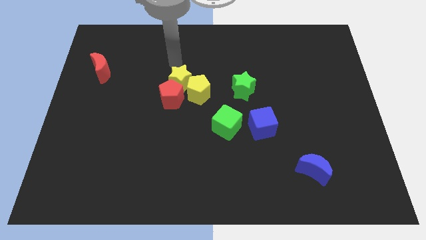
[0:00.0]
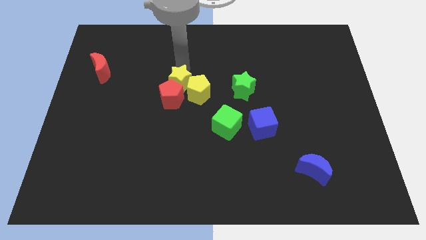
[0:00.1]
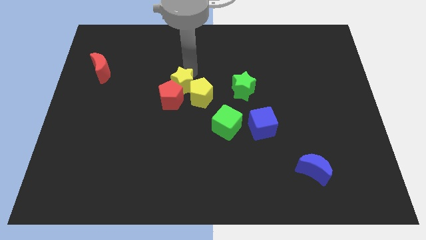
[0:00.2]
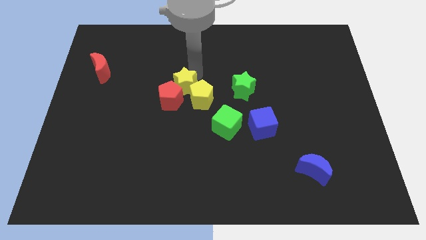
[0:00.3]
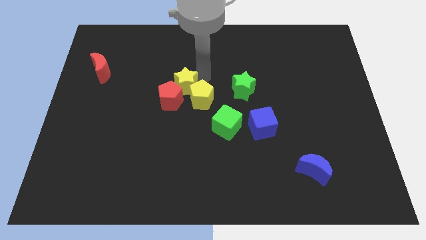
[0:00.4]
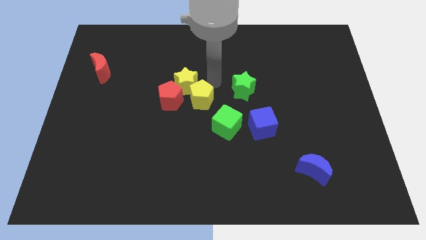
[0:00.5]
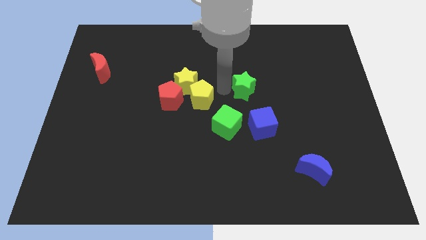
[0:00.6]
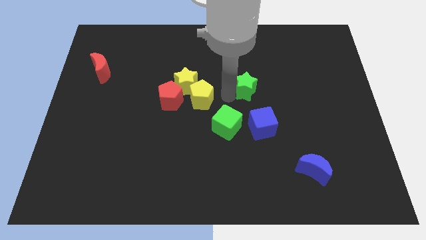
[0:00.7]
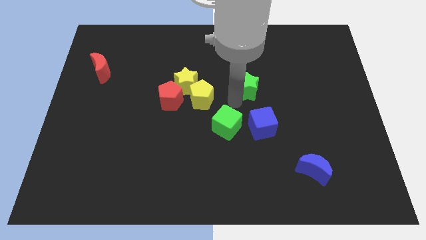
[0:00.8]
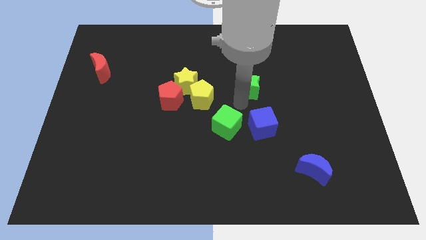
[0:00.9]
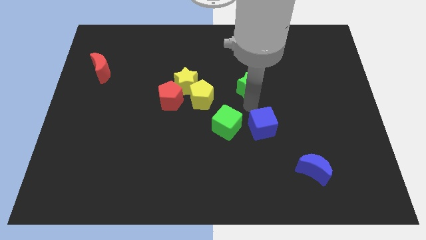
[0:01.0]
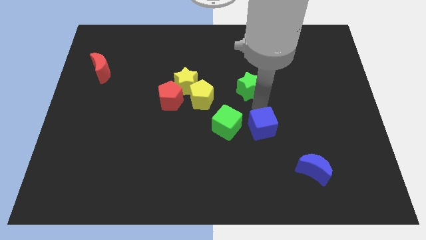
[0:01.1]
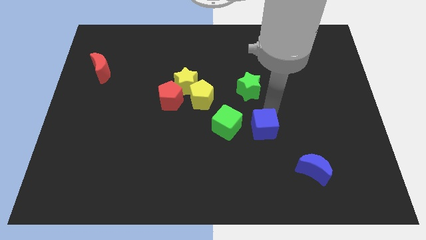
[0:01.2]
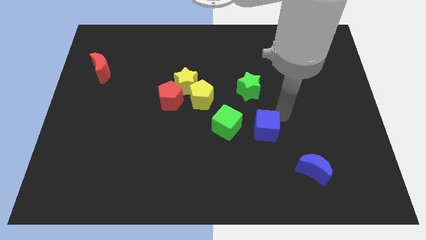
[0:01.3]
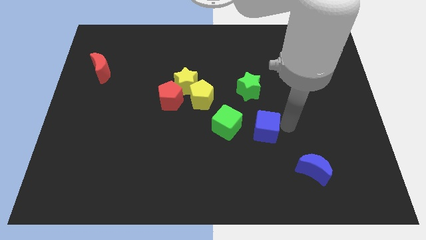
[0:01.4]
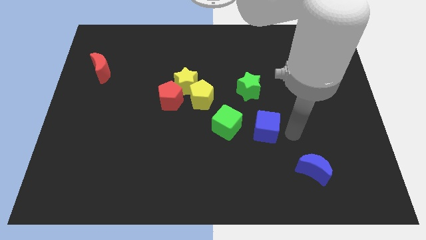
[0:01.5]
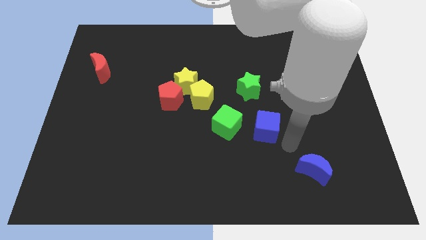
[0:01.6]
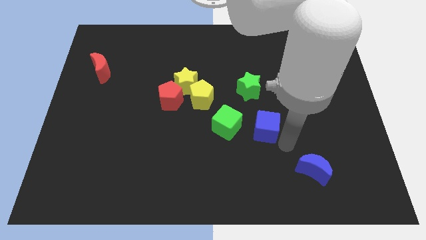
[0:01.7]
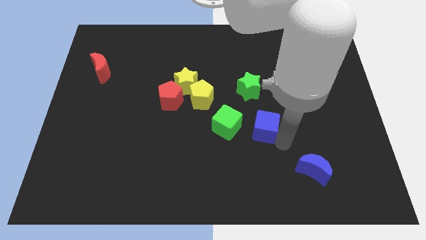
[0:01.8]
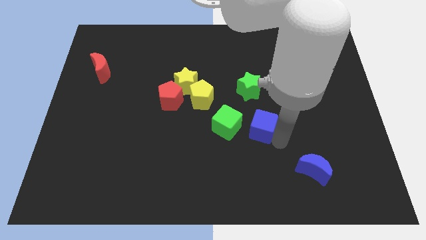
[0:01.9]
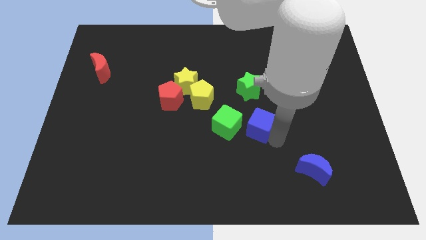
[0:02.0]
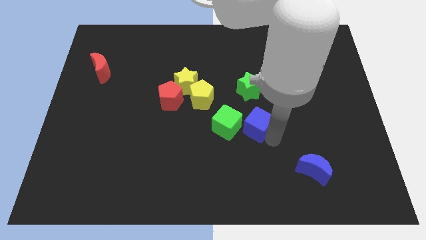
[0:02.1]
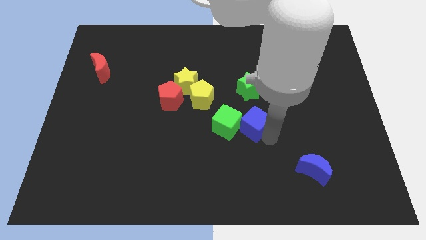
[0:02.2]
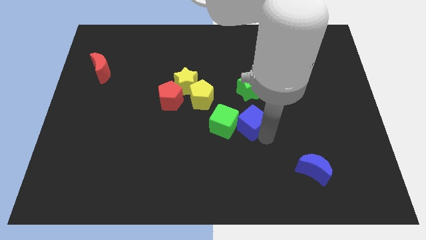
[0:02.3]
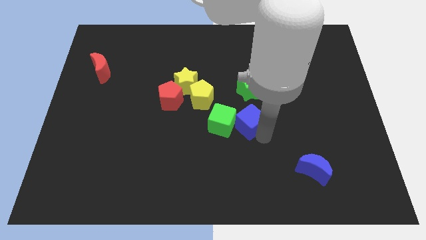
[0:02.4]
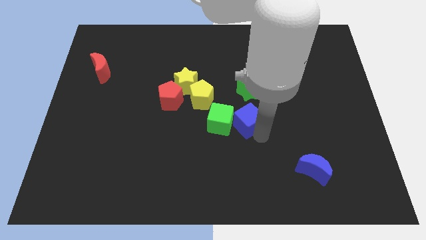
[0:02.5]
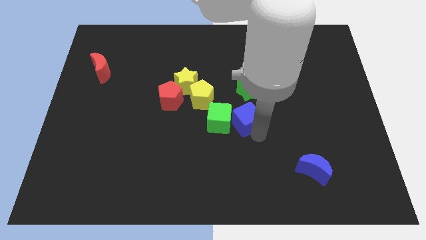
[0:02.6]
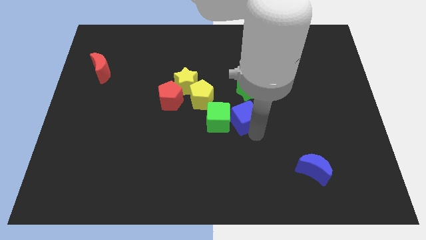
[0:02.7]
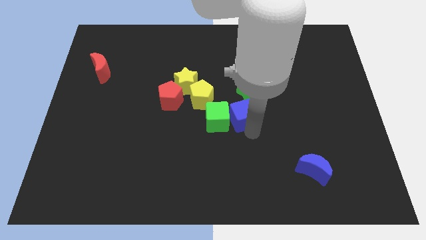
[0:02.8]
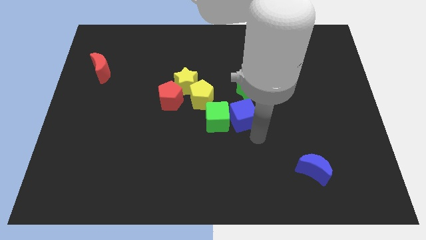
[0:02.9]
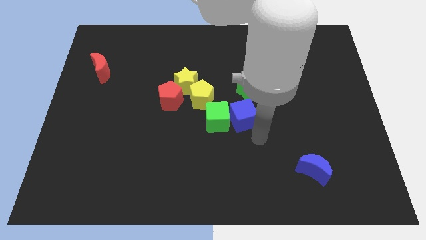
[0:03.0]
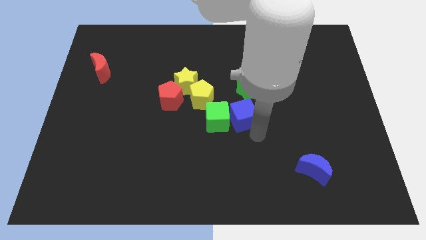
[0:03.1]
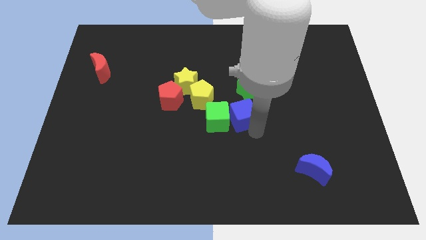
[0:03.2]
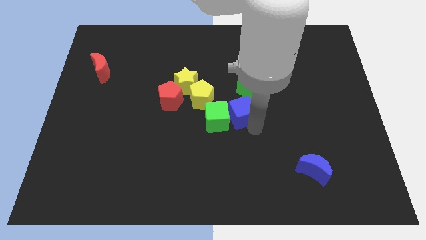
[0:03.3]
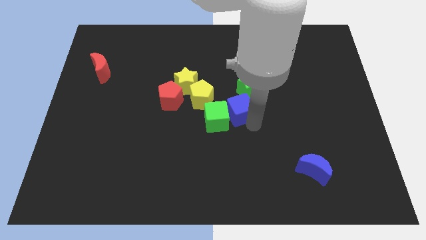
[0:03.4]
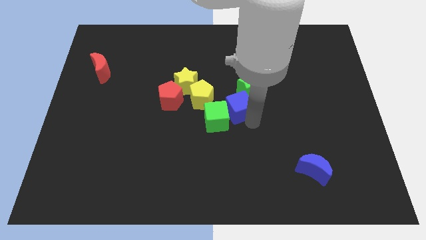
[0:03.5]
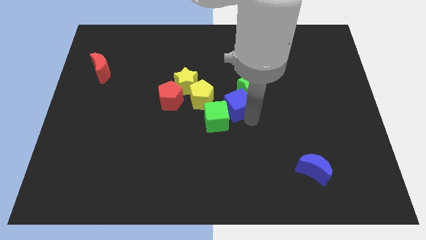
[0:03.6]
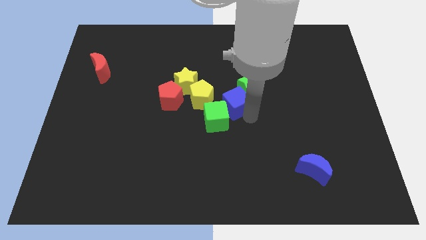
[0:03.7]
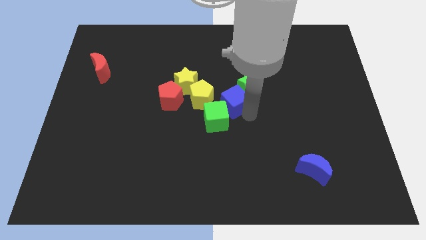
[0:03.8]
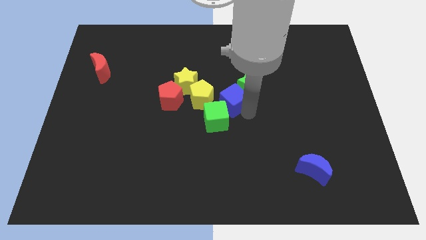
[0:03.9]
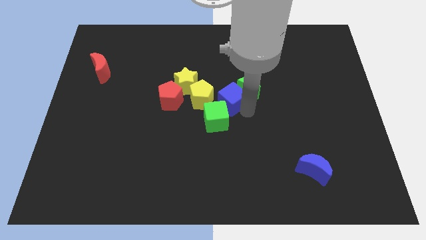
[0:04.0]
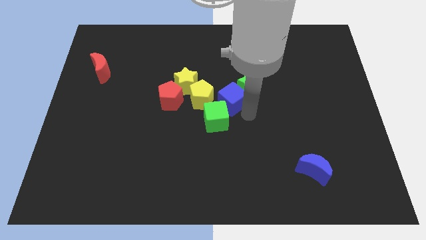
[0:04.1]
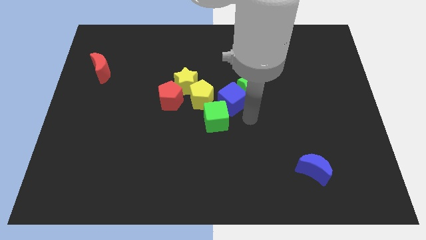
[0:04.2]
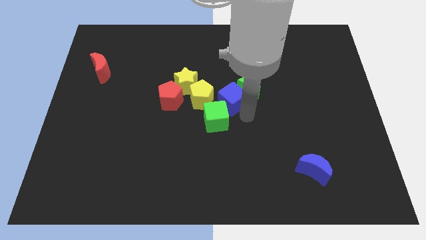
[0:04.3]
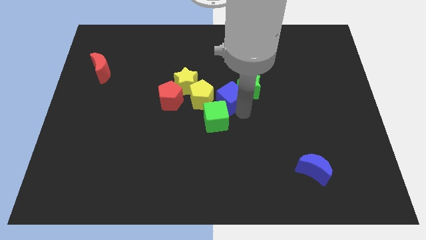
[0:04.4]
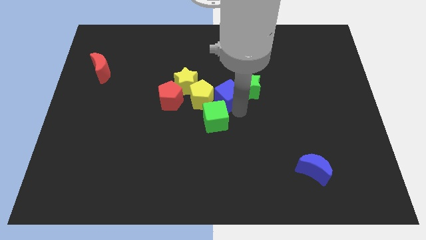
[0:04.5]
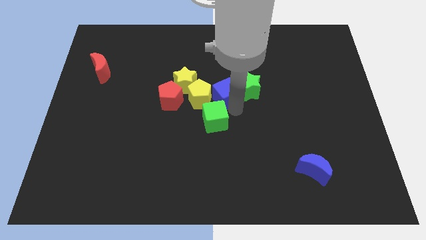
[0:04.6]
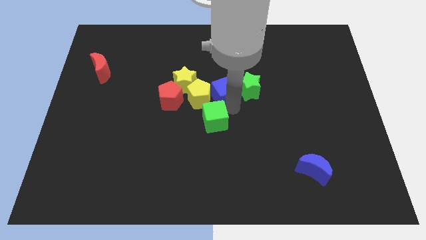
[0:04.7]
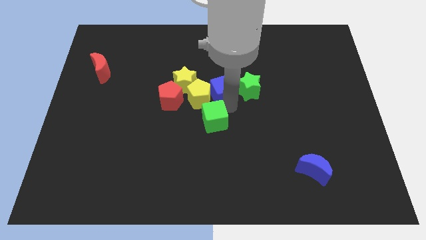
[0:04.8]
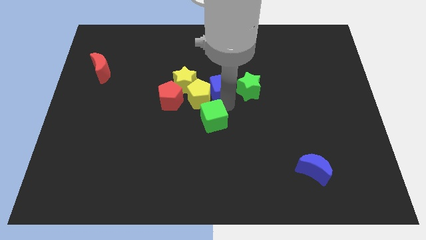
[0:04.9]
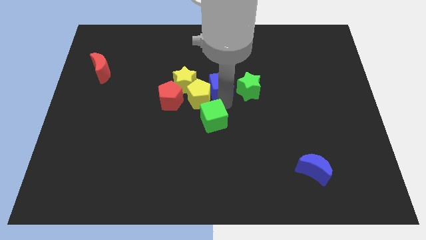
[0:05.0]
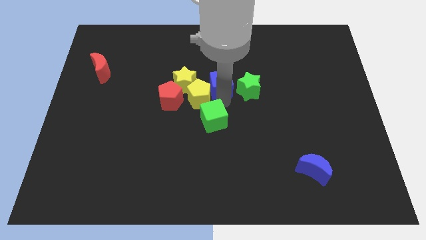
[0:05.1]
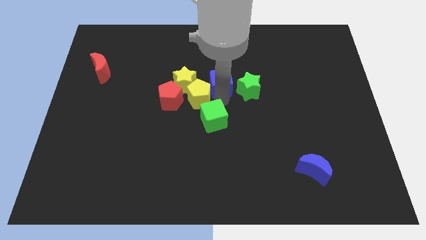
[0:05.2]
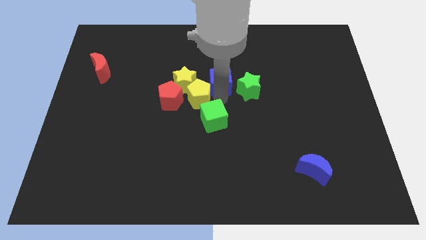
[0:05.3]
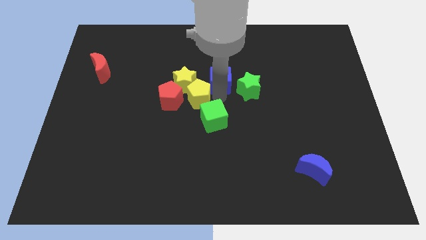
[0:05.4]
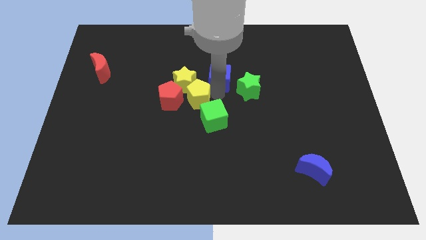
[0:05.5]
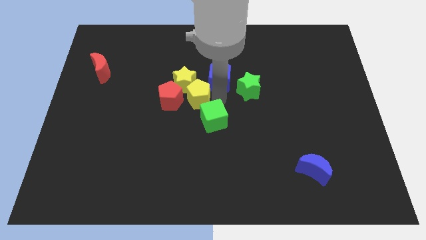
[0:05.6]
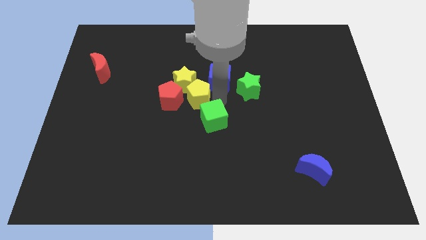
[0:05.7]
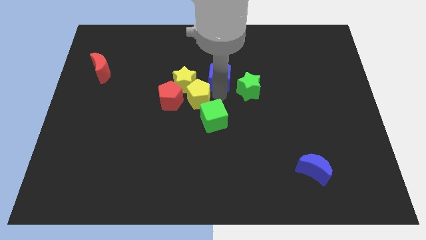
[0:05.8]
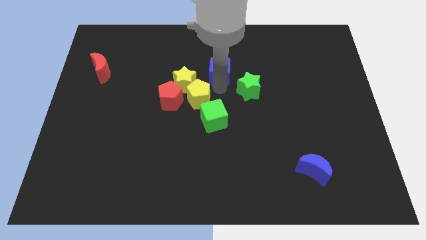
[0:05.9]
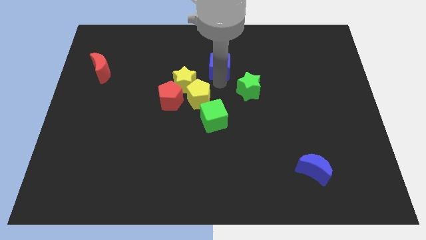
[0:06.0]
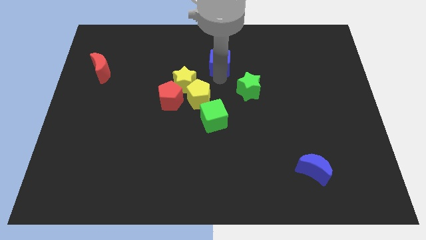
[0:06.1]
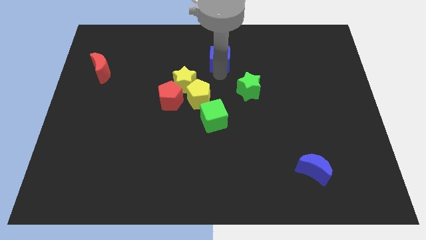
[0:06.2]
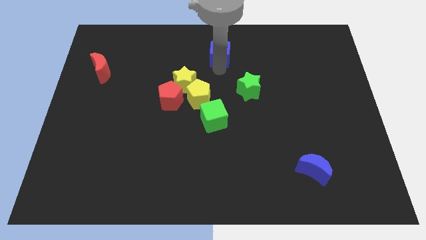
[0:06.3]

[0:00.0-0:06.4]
move the blue cube to the top side

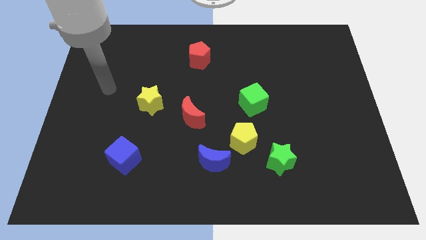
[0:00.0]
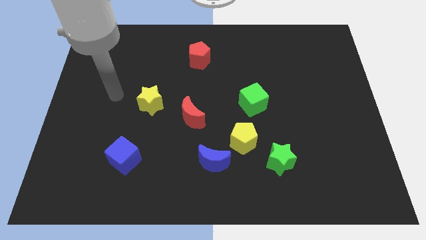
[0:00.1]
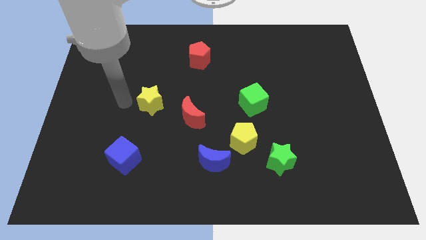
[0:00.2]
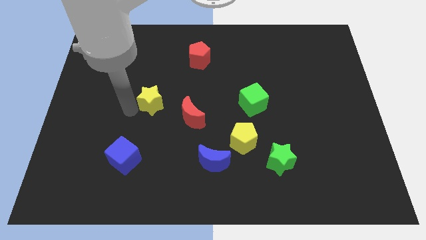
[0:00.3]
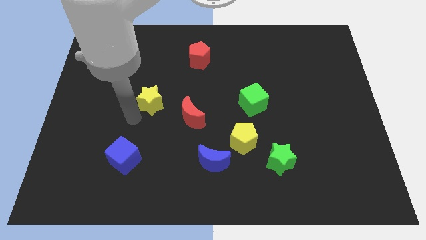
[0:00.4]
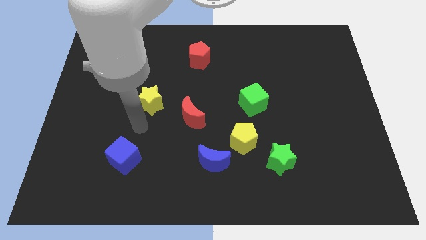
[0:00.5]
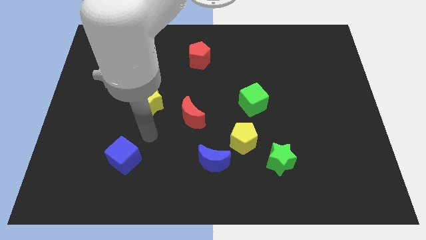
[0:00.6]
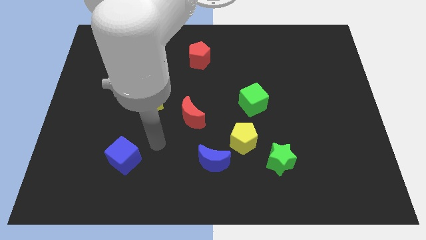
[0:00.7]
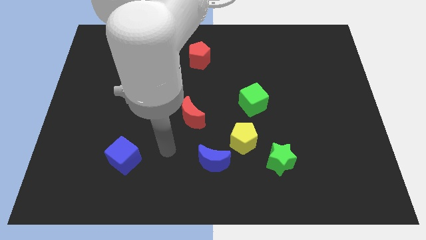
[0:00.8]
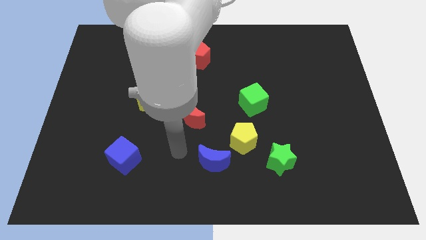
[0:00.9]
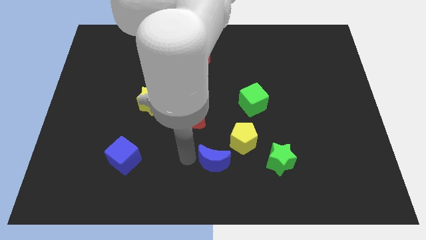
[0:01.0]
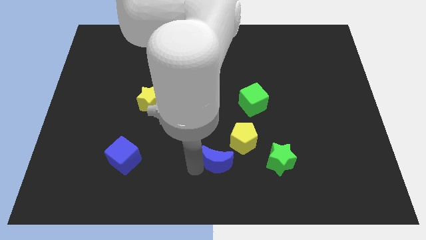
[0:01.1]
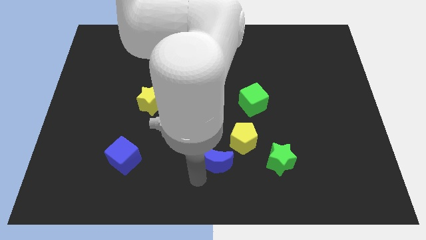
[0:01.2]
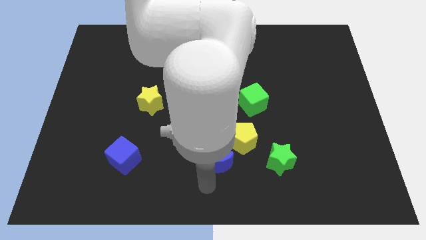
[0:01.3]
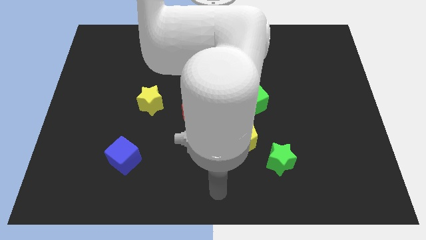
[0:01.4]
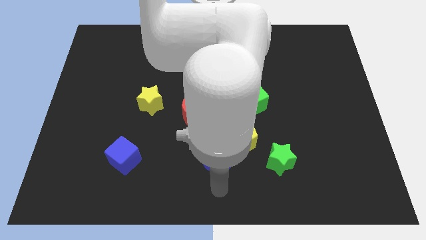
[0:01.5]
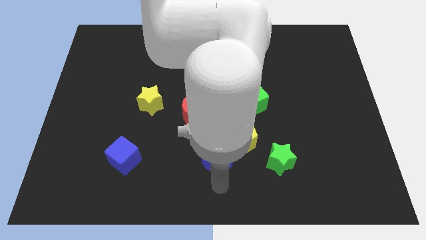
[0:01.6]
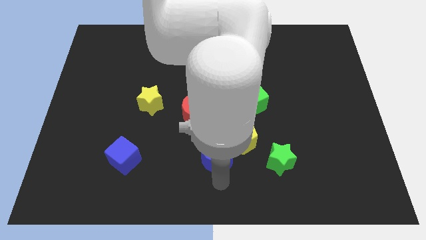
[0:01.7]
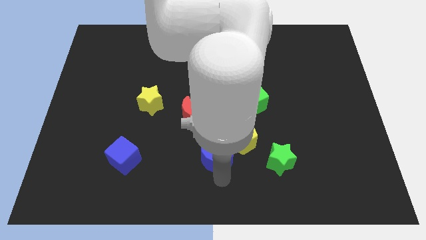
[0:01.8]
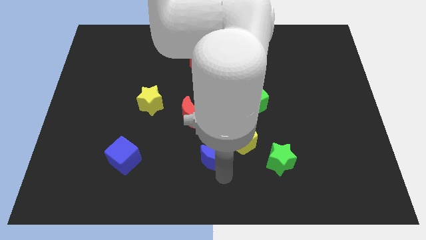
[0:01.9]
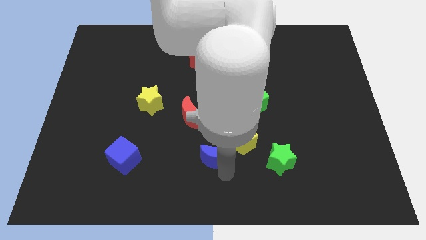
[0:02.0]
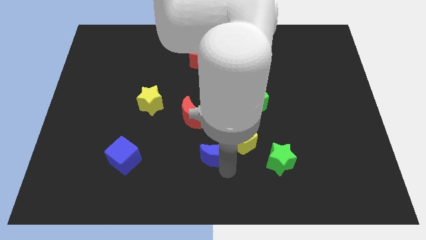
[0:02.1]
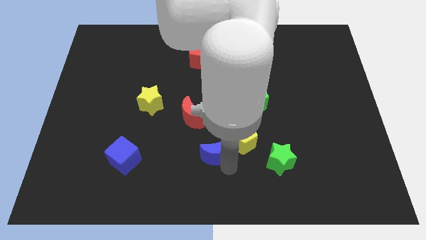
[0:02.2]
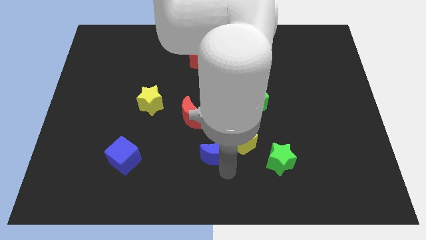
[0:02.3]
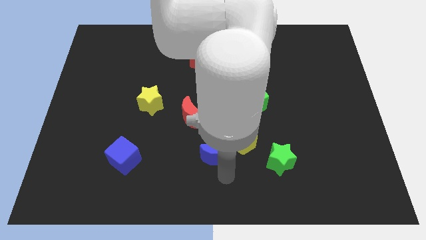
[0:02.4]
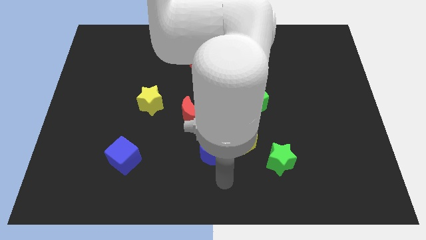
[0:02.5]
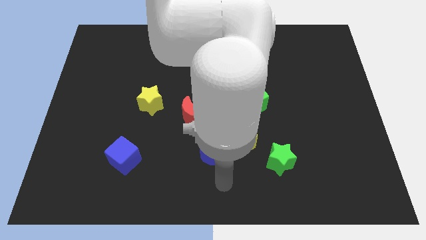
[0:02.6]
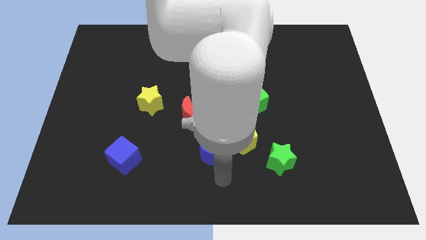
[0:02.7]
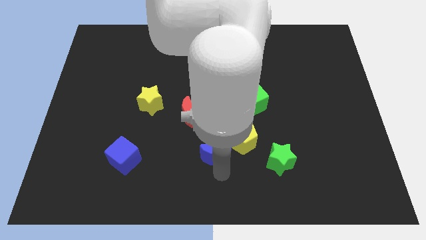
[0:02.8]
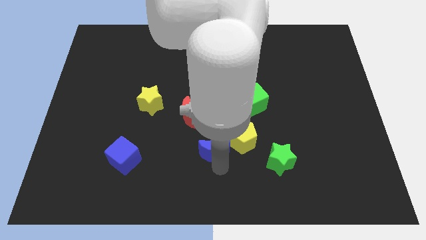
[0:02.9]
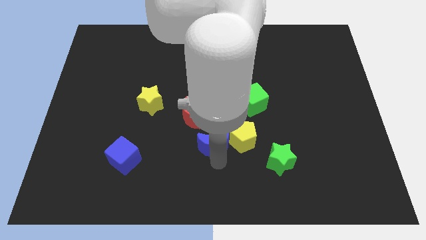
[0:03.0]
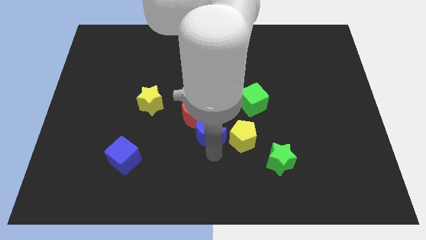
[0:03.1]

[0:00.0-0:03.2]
push the blue moon to the middle
